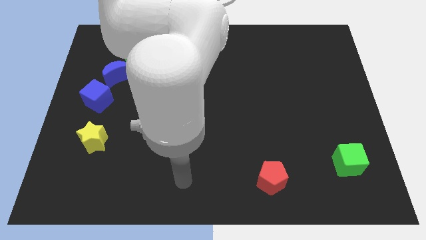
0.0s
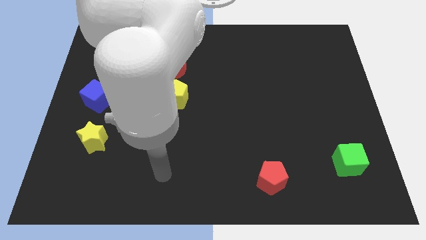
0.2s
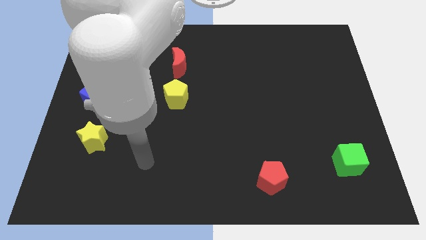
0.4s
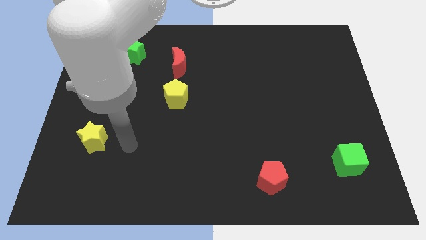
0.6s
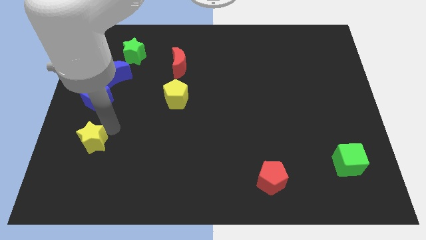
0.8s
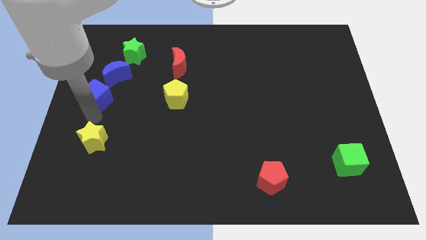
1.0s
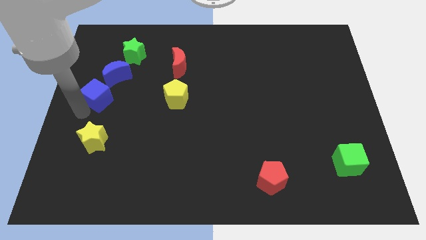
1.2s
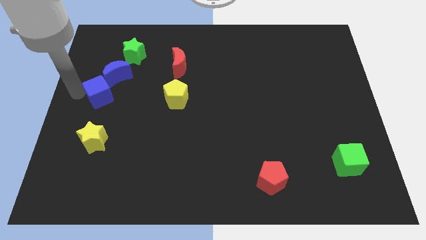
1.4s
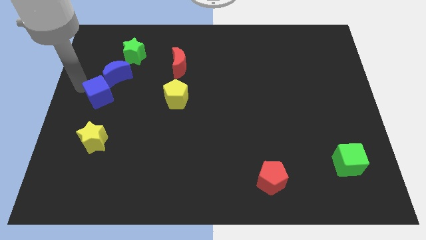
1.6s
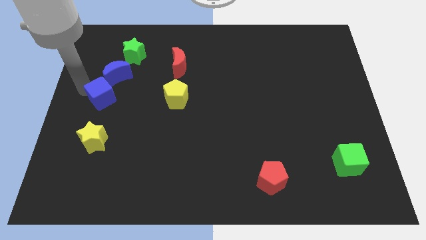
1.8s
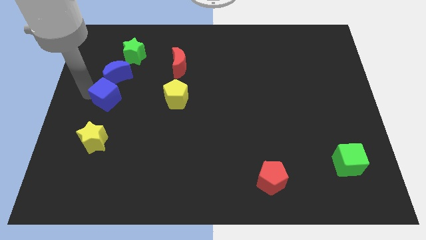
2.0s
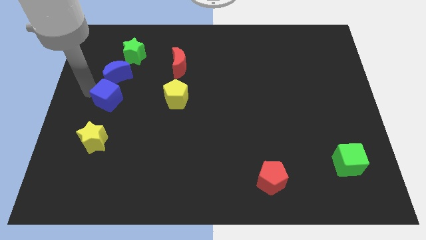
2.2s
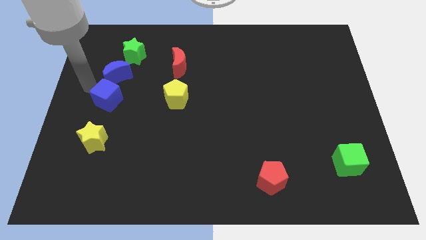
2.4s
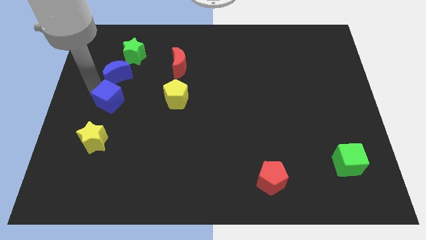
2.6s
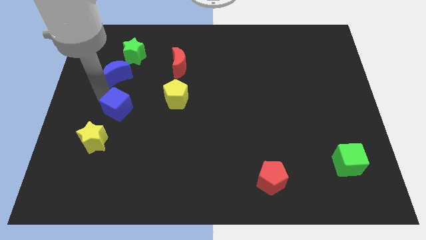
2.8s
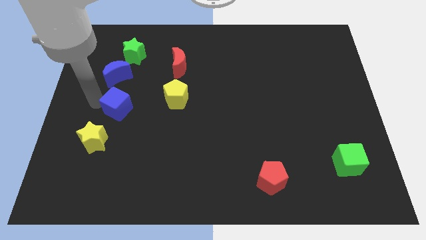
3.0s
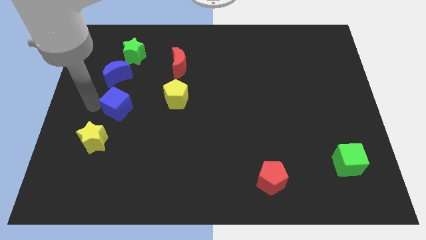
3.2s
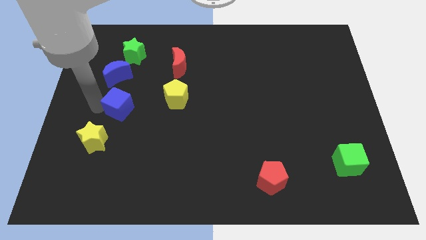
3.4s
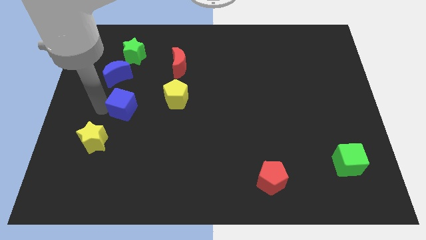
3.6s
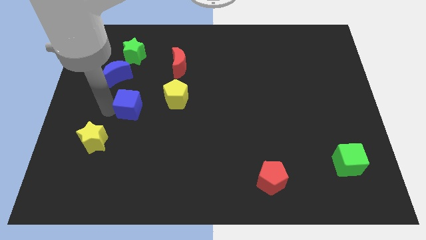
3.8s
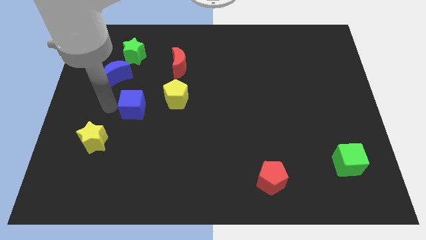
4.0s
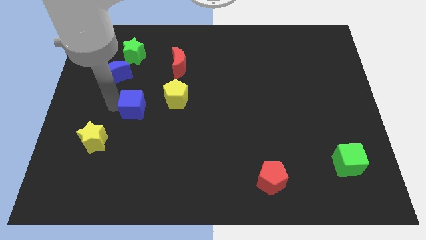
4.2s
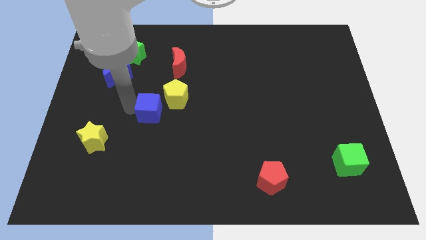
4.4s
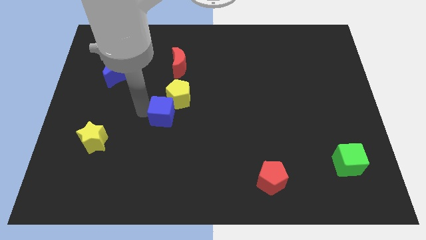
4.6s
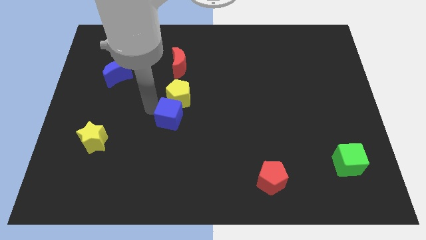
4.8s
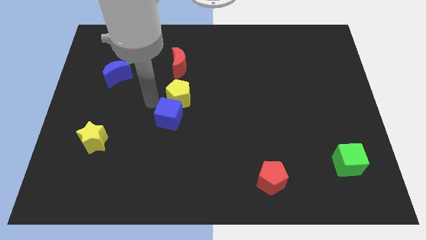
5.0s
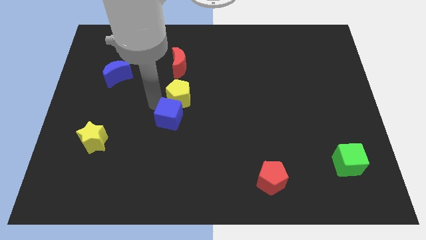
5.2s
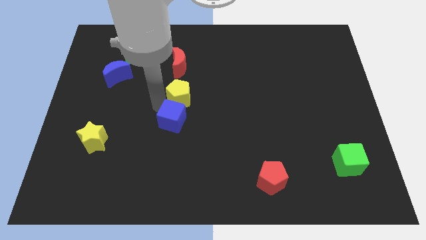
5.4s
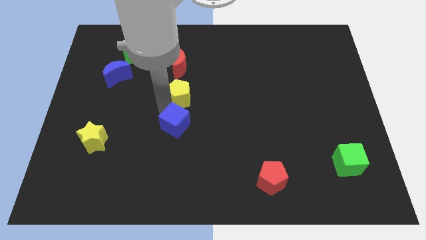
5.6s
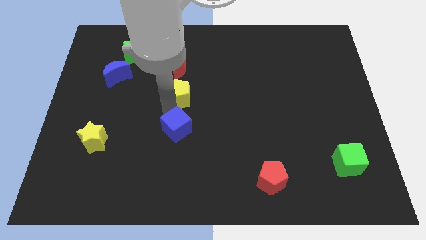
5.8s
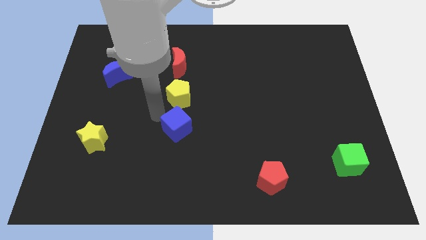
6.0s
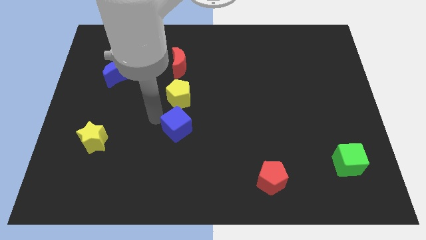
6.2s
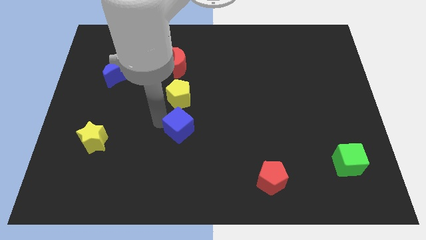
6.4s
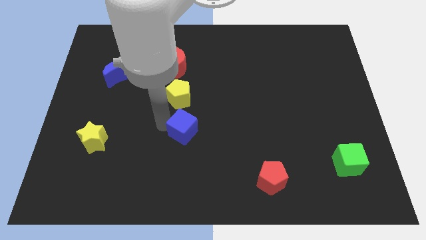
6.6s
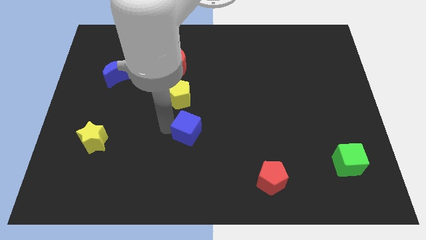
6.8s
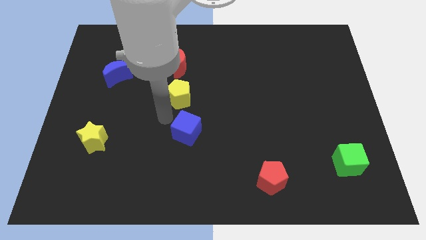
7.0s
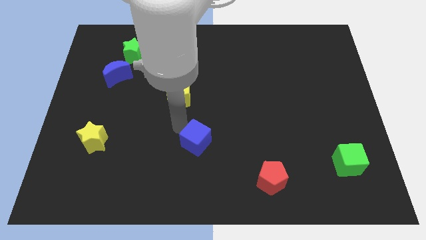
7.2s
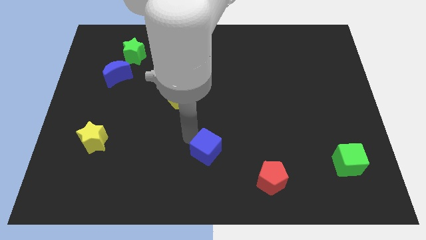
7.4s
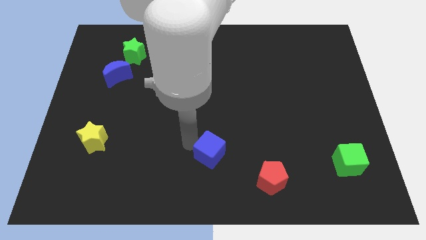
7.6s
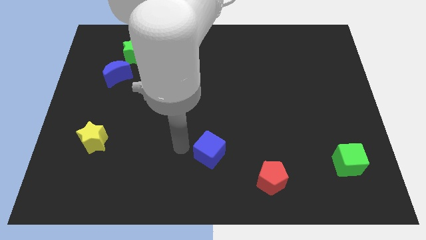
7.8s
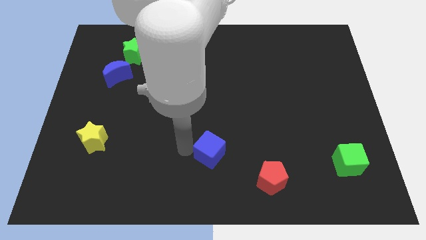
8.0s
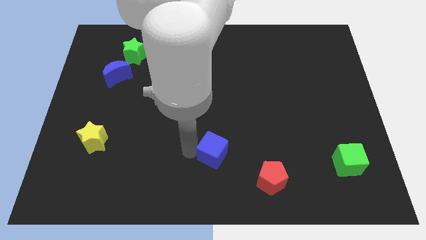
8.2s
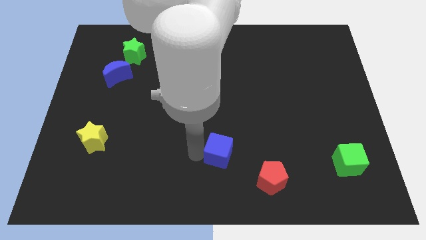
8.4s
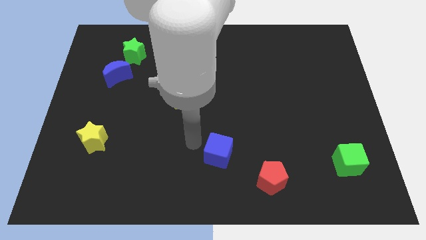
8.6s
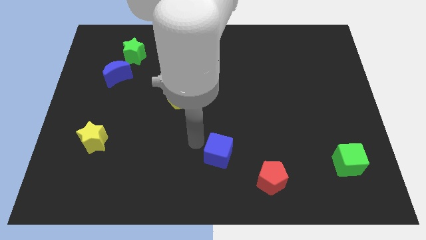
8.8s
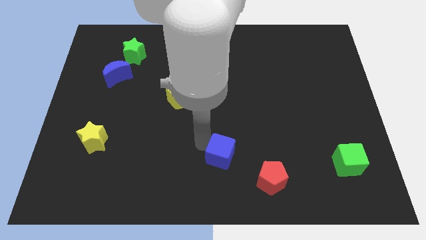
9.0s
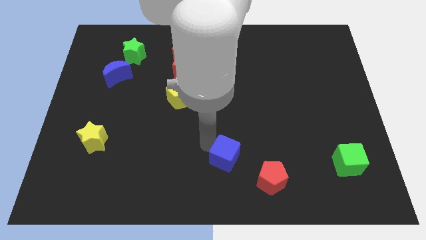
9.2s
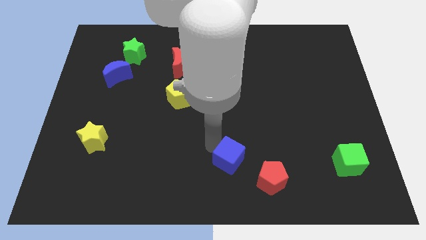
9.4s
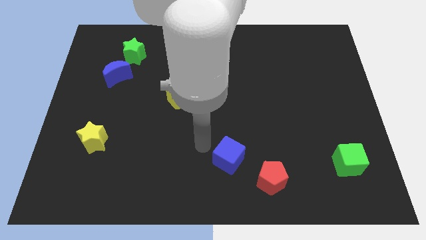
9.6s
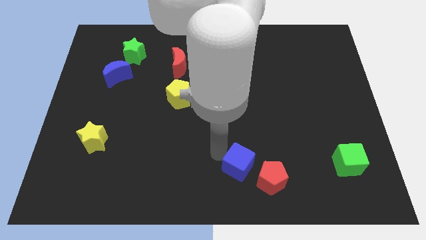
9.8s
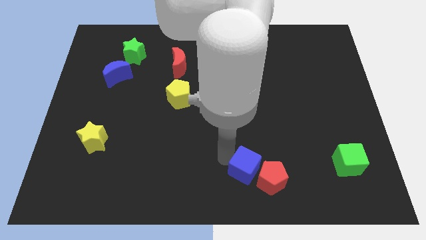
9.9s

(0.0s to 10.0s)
put the blue cube close to the red pentagon

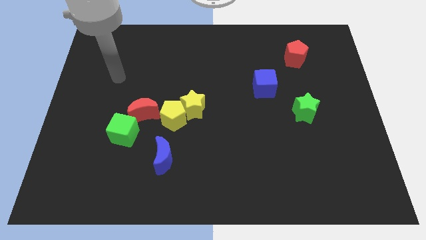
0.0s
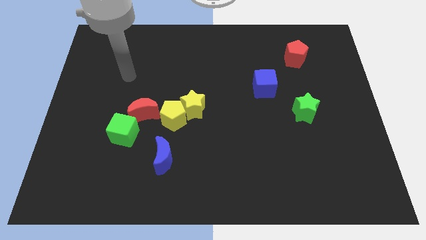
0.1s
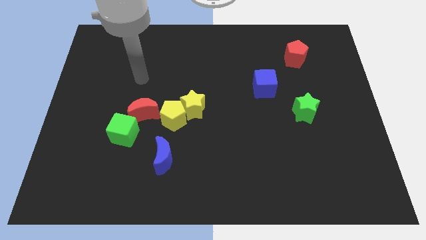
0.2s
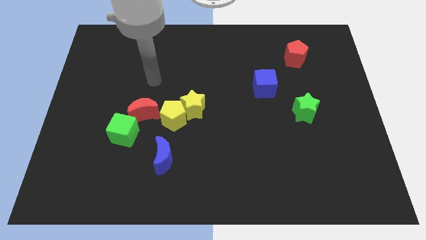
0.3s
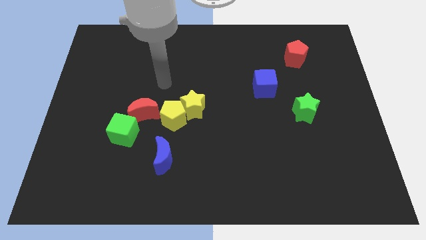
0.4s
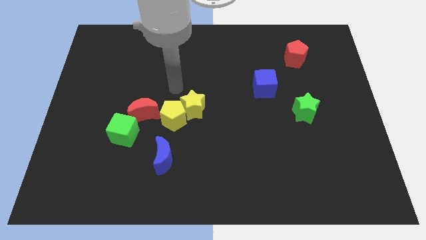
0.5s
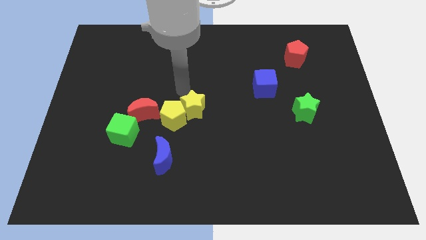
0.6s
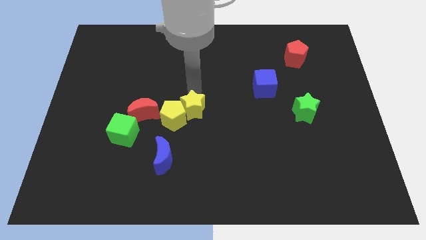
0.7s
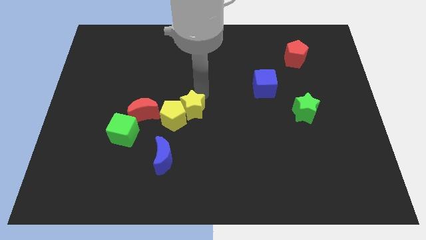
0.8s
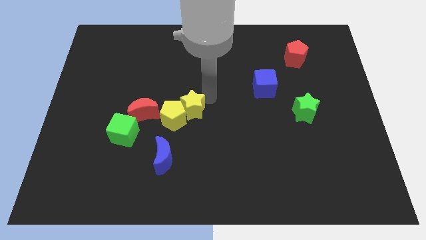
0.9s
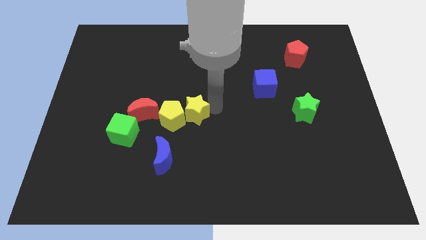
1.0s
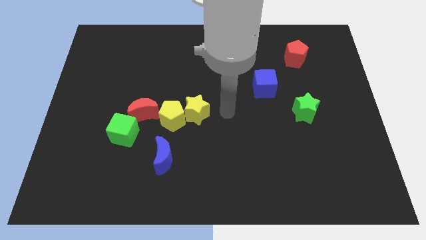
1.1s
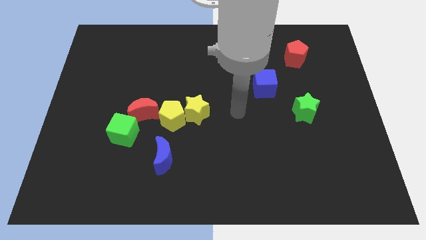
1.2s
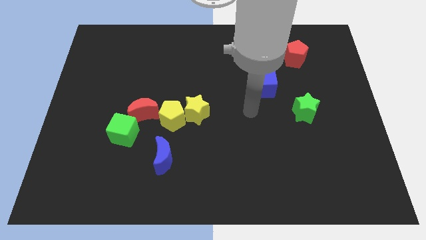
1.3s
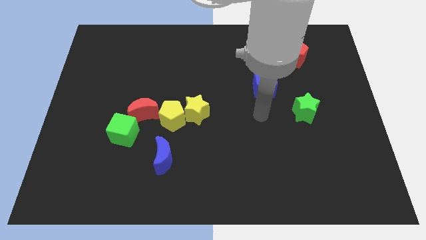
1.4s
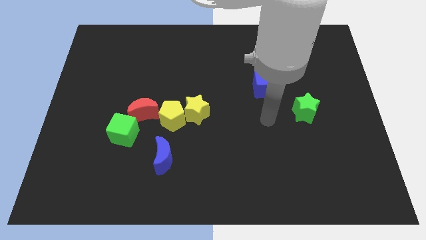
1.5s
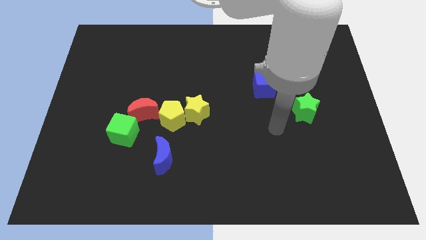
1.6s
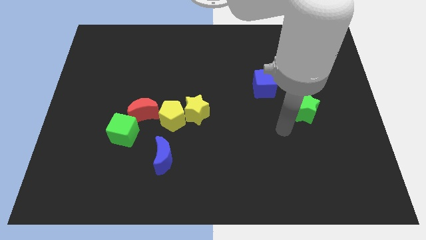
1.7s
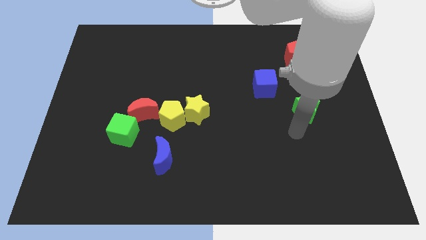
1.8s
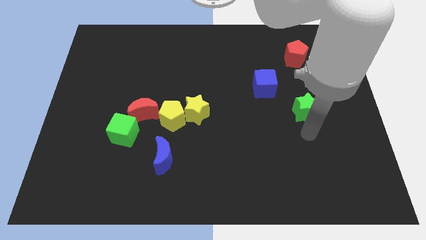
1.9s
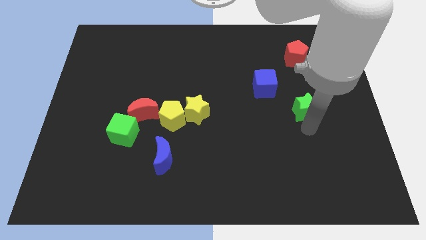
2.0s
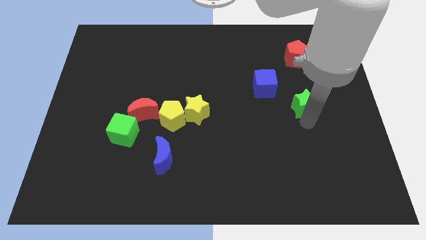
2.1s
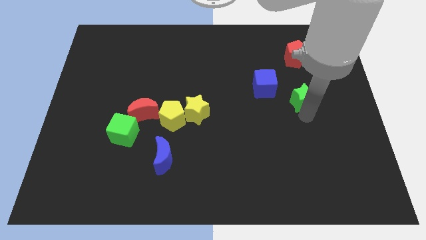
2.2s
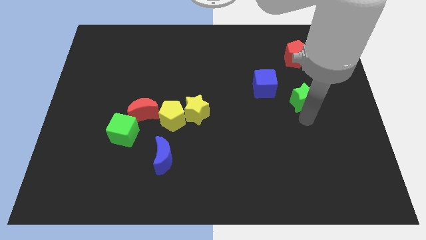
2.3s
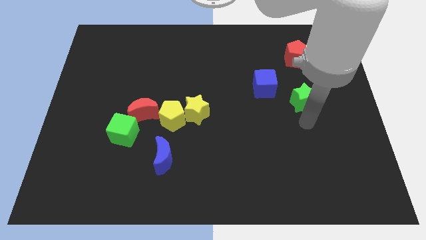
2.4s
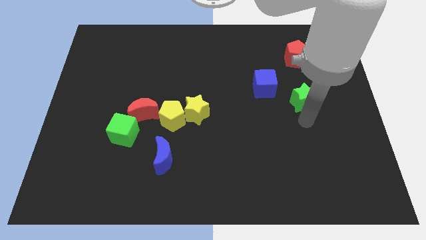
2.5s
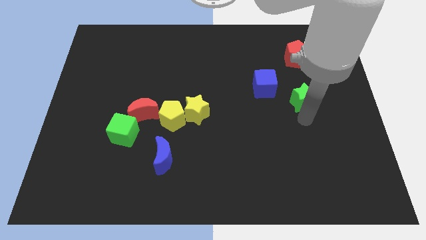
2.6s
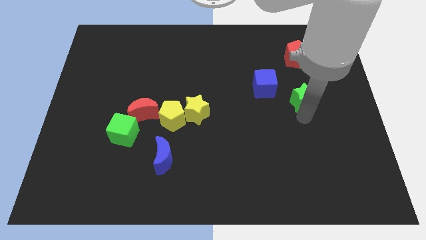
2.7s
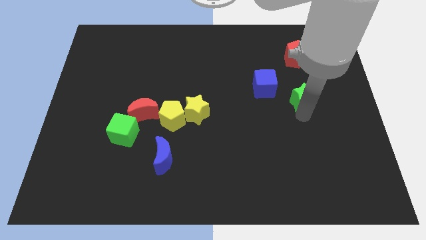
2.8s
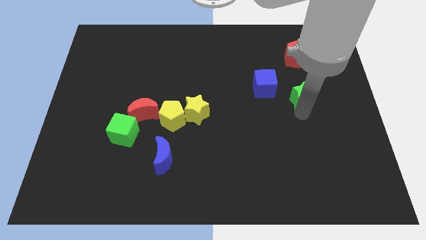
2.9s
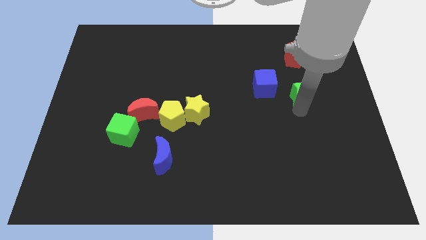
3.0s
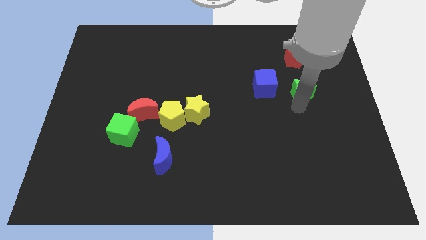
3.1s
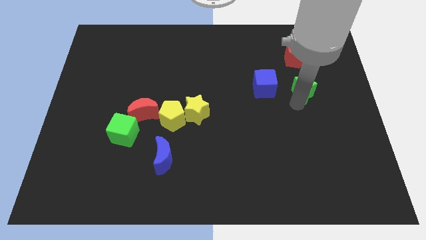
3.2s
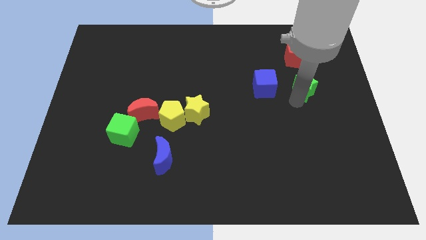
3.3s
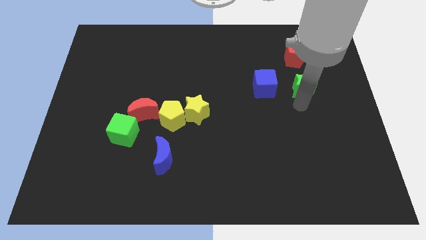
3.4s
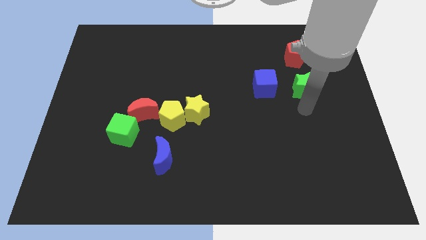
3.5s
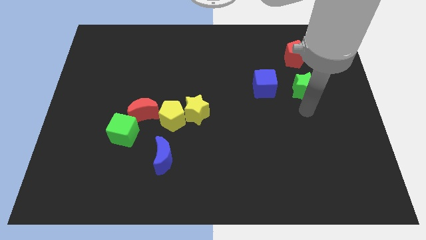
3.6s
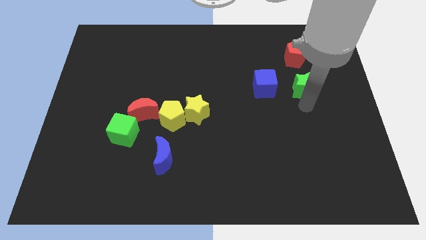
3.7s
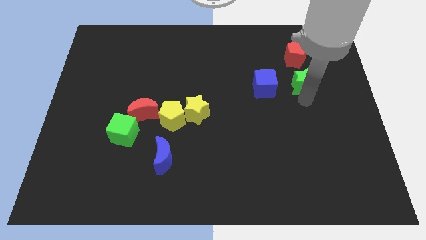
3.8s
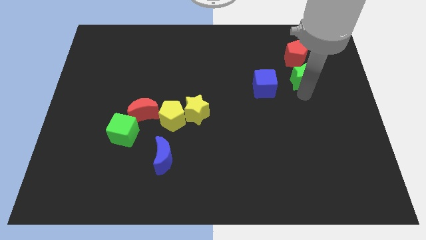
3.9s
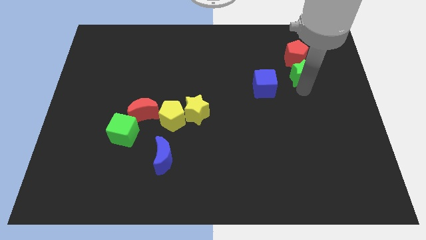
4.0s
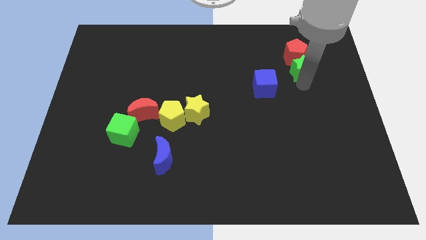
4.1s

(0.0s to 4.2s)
move the green star to the red pentagon
